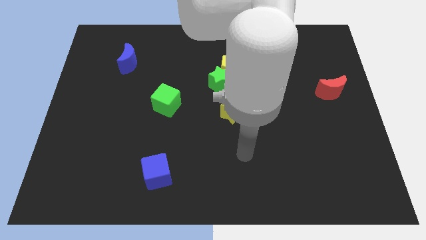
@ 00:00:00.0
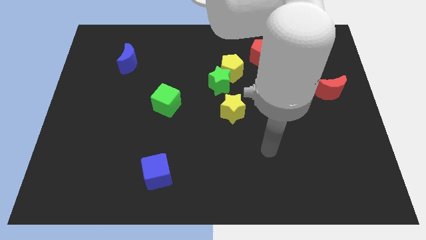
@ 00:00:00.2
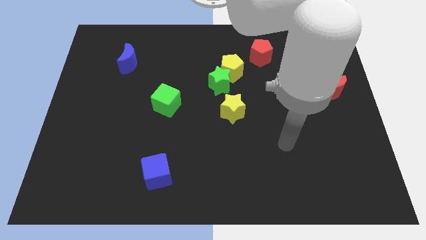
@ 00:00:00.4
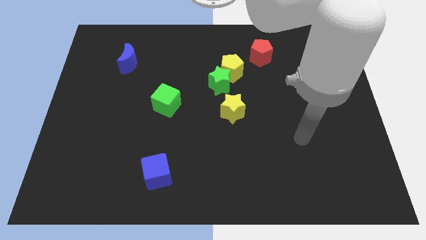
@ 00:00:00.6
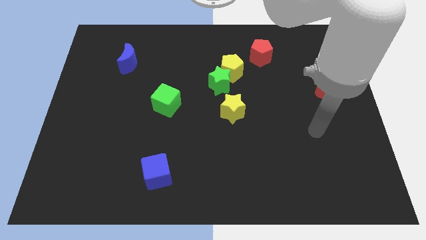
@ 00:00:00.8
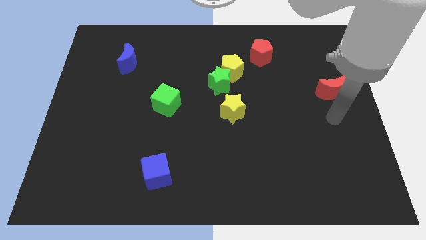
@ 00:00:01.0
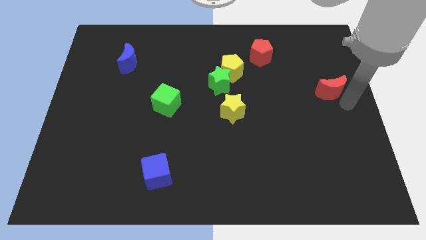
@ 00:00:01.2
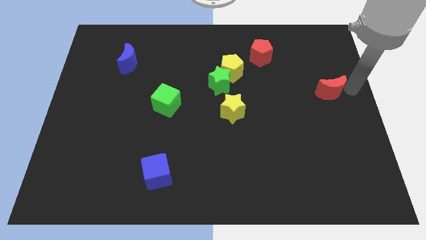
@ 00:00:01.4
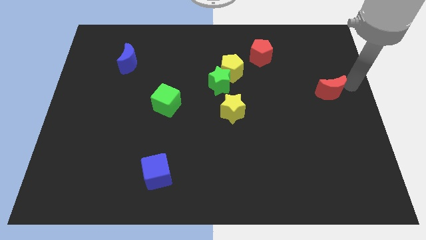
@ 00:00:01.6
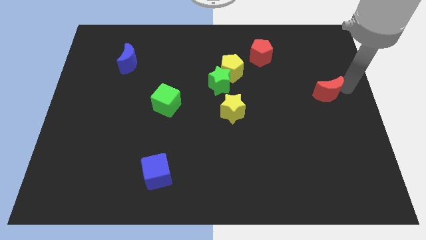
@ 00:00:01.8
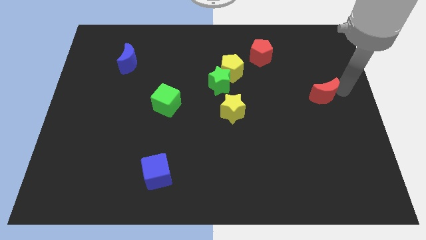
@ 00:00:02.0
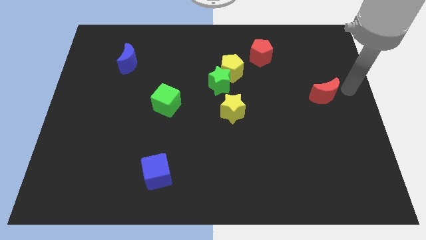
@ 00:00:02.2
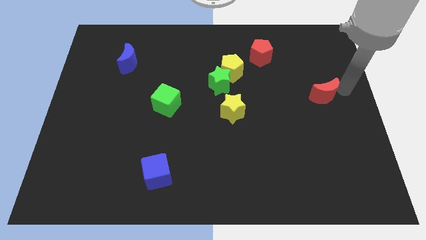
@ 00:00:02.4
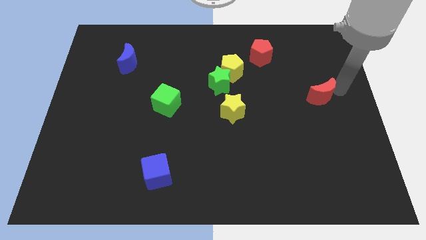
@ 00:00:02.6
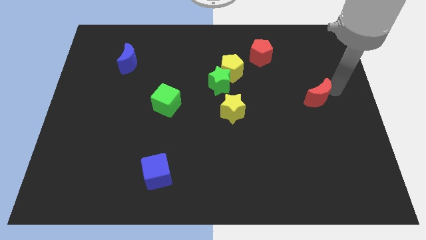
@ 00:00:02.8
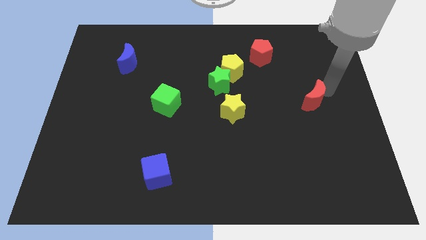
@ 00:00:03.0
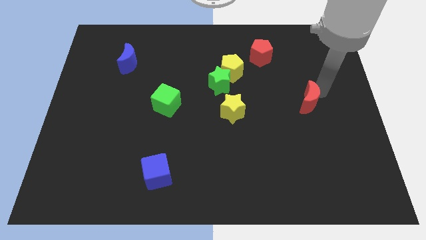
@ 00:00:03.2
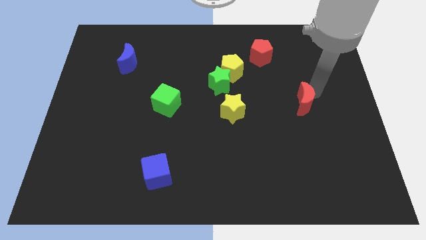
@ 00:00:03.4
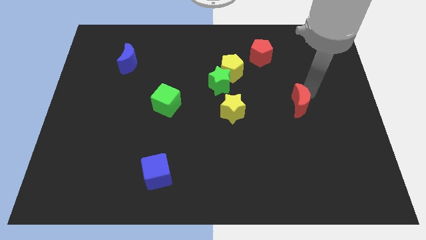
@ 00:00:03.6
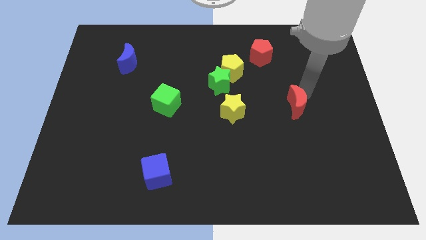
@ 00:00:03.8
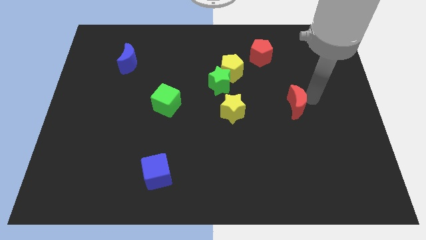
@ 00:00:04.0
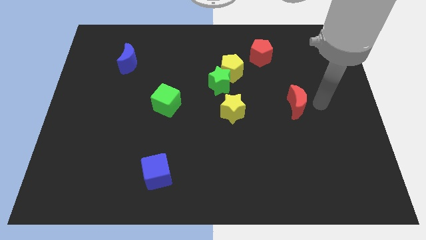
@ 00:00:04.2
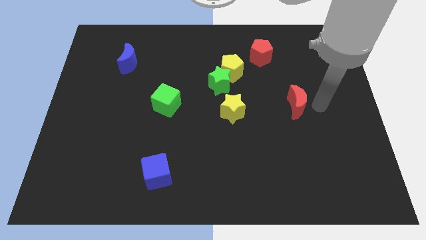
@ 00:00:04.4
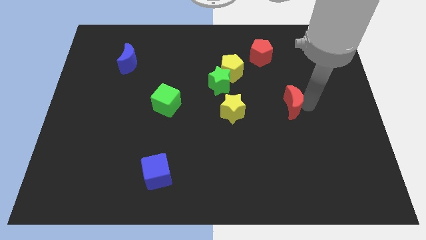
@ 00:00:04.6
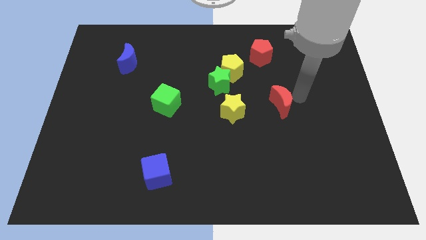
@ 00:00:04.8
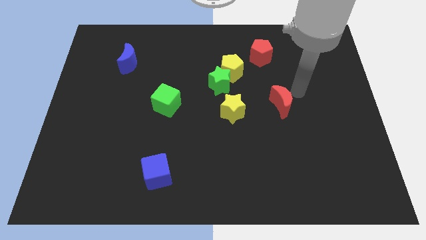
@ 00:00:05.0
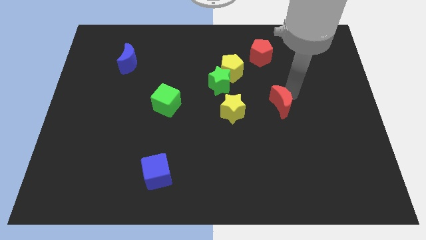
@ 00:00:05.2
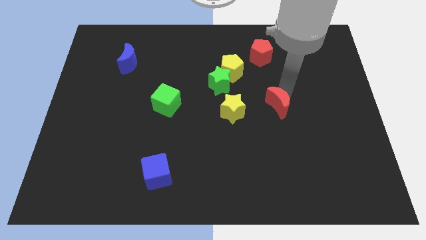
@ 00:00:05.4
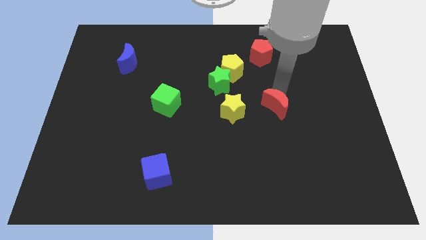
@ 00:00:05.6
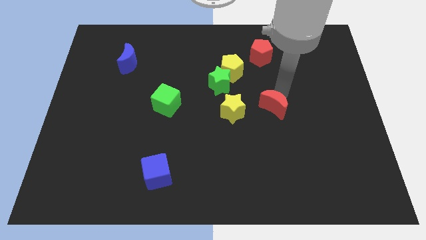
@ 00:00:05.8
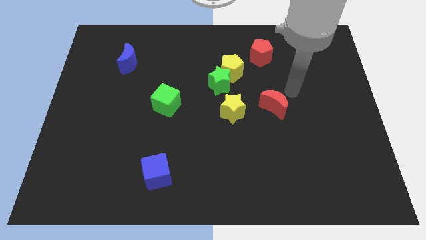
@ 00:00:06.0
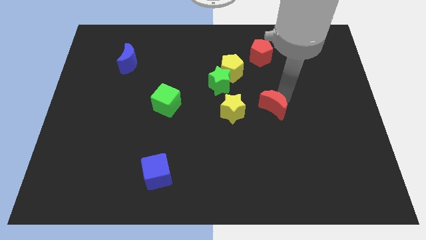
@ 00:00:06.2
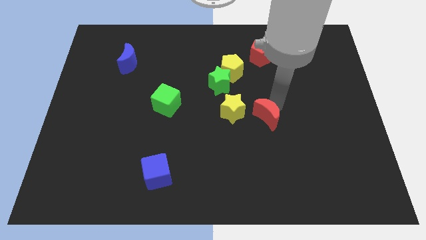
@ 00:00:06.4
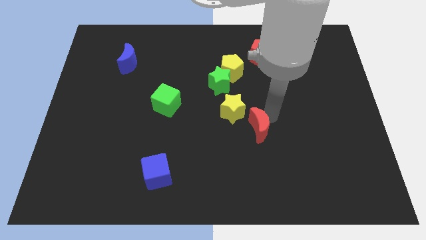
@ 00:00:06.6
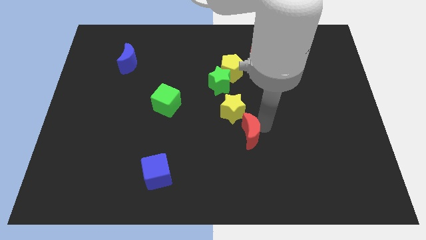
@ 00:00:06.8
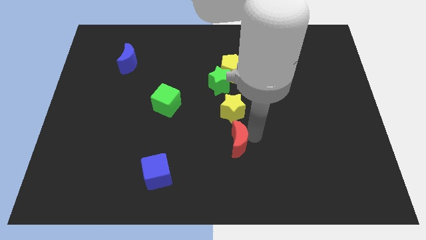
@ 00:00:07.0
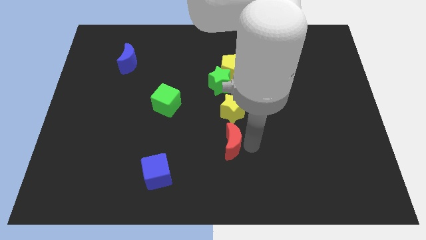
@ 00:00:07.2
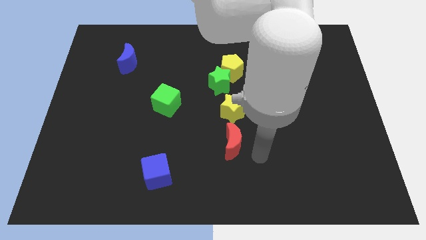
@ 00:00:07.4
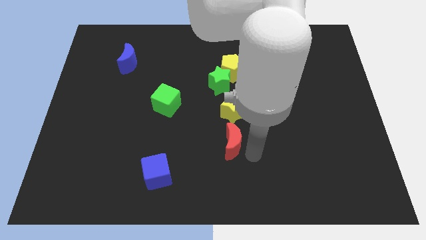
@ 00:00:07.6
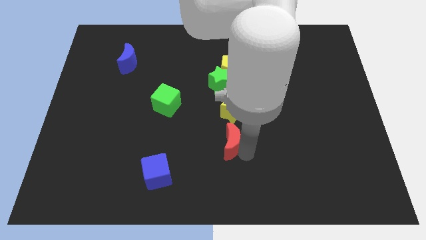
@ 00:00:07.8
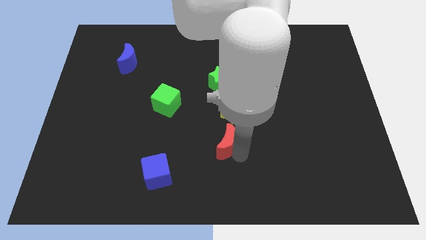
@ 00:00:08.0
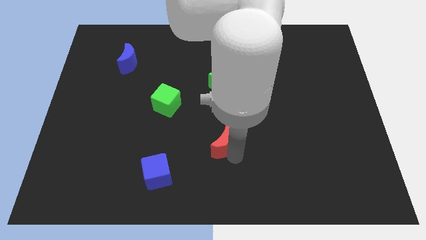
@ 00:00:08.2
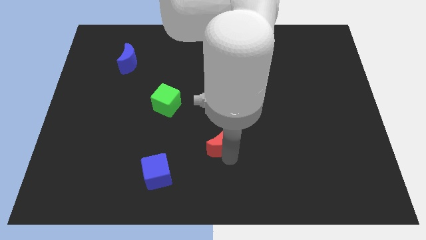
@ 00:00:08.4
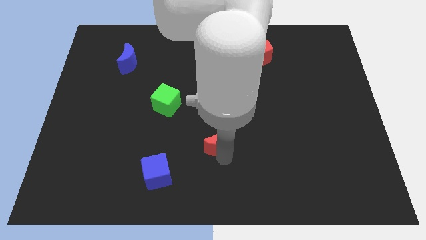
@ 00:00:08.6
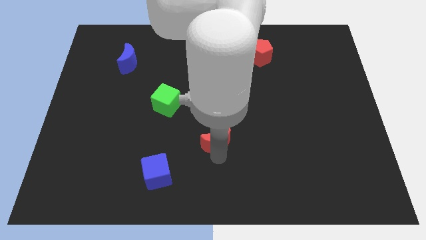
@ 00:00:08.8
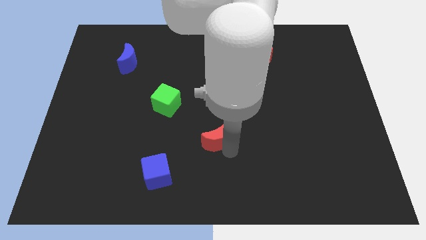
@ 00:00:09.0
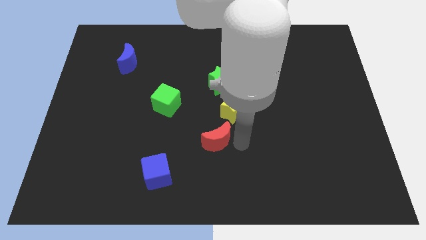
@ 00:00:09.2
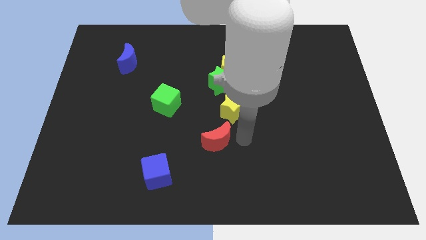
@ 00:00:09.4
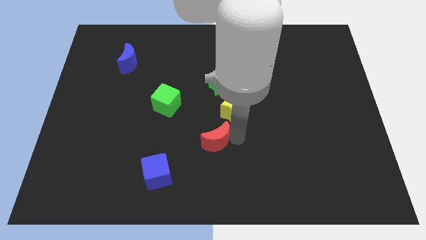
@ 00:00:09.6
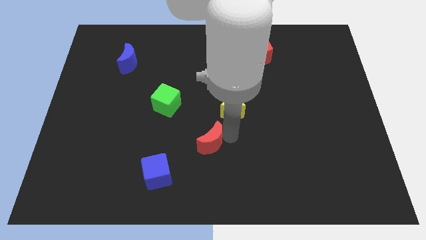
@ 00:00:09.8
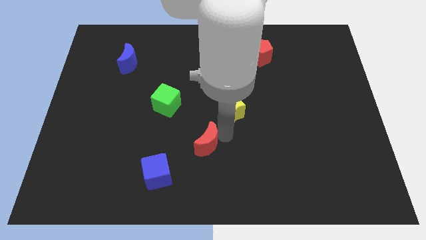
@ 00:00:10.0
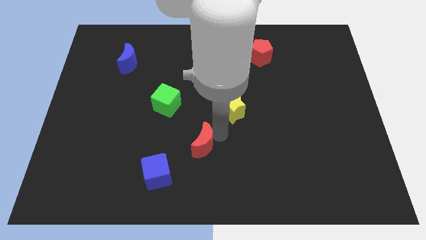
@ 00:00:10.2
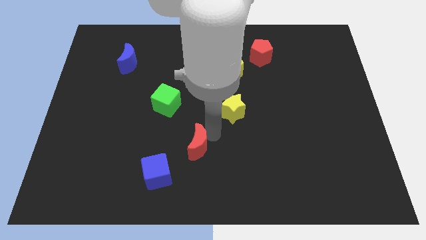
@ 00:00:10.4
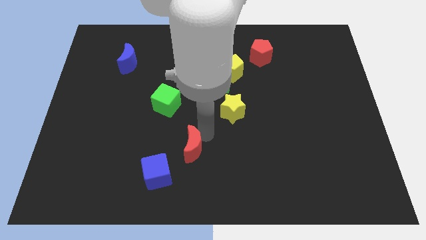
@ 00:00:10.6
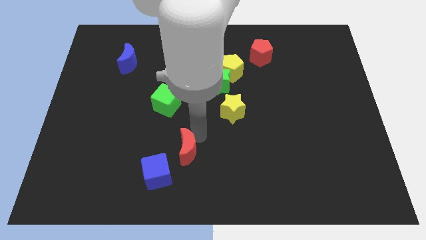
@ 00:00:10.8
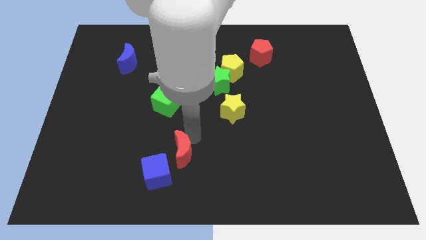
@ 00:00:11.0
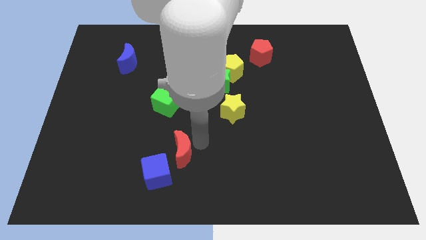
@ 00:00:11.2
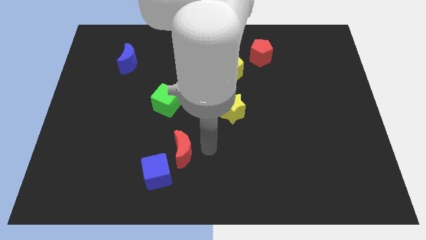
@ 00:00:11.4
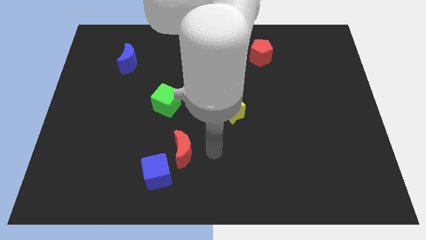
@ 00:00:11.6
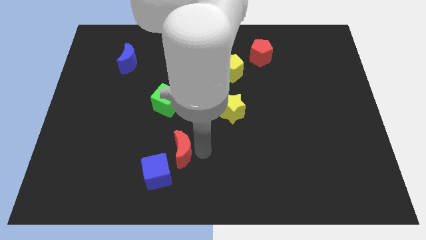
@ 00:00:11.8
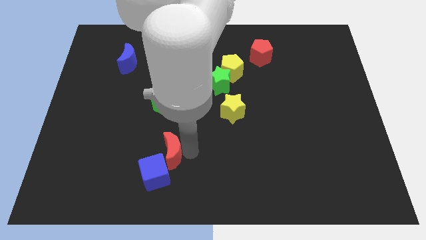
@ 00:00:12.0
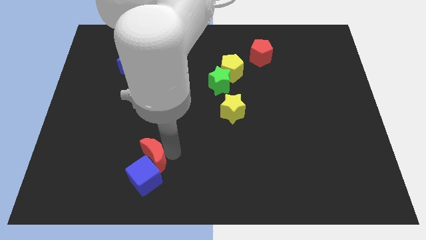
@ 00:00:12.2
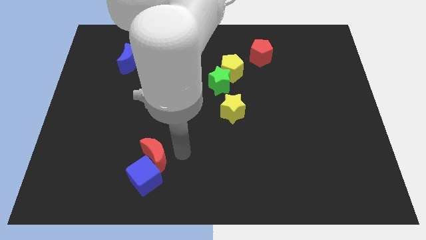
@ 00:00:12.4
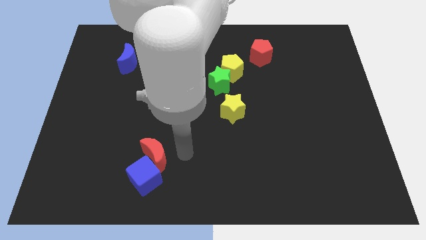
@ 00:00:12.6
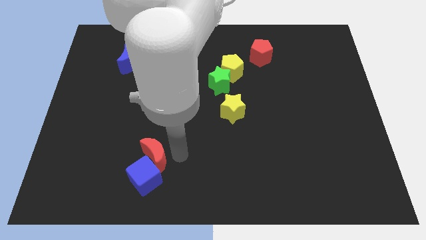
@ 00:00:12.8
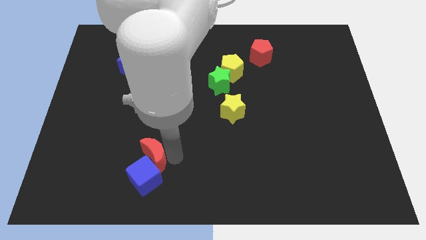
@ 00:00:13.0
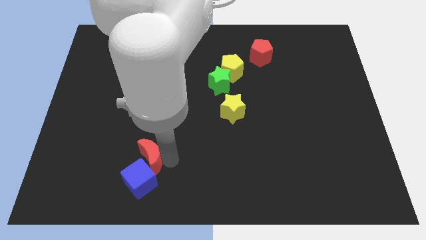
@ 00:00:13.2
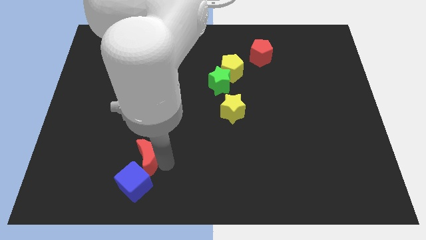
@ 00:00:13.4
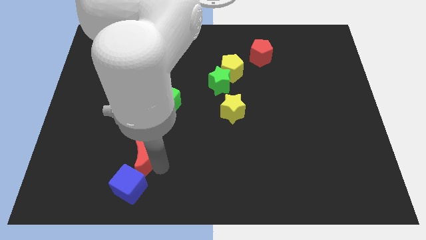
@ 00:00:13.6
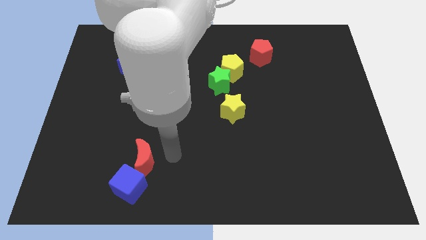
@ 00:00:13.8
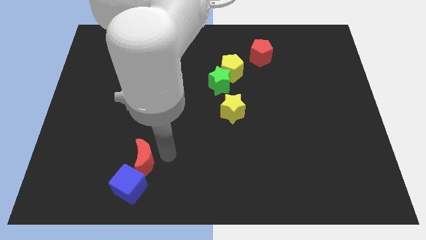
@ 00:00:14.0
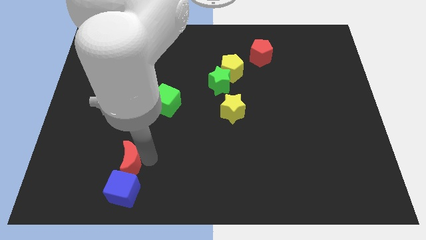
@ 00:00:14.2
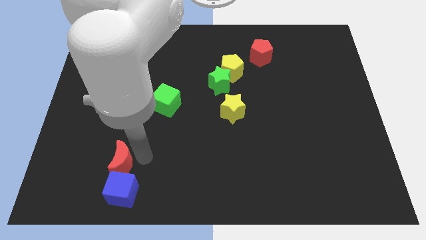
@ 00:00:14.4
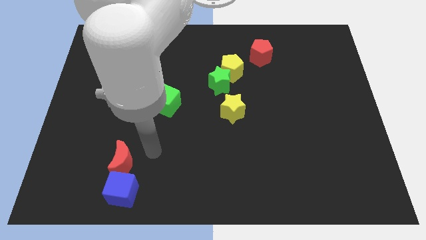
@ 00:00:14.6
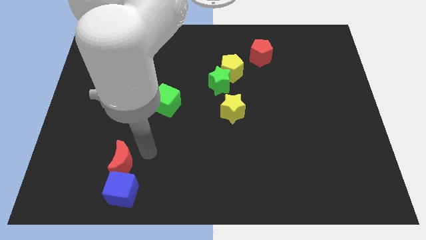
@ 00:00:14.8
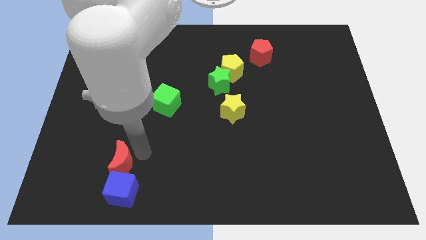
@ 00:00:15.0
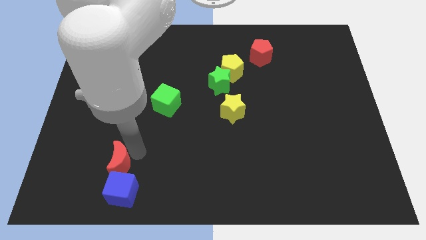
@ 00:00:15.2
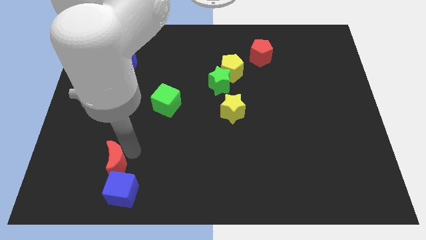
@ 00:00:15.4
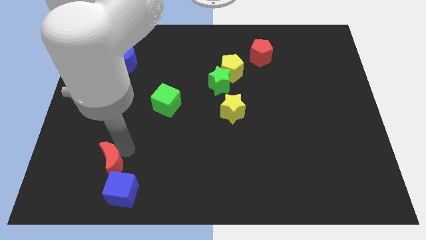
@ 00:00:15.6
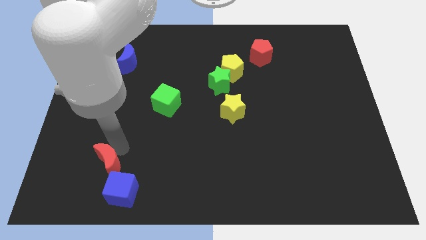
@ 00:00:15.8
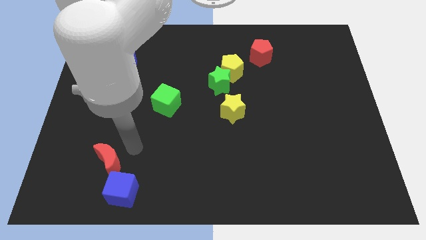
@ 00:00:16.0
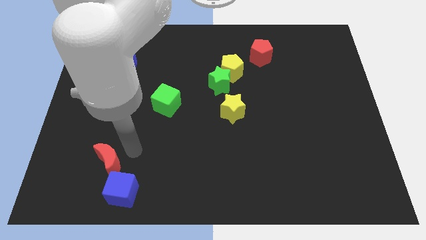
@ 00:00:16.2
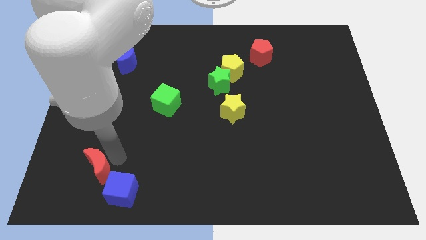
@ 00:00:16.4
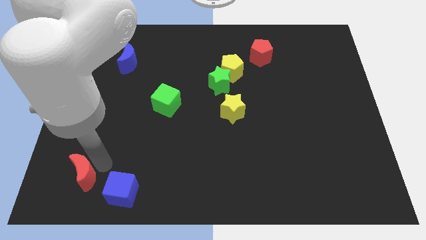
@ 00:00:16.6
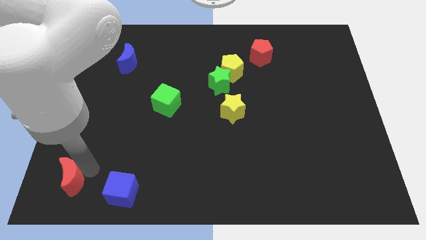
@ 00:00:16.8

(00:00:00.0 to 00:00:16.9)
move the red moon to the lower left corner
